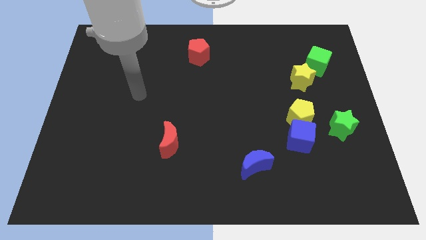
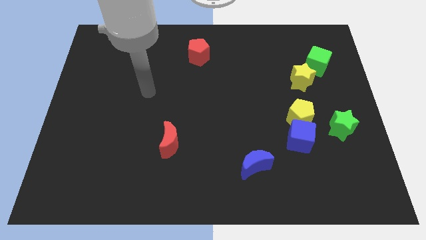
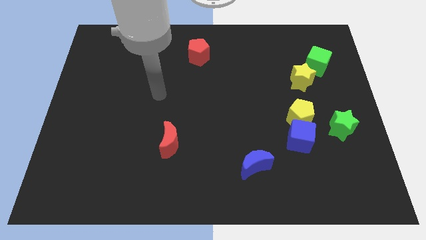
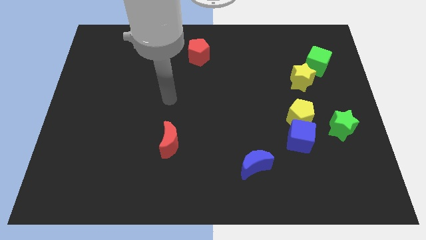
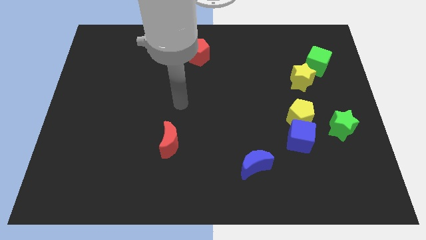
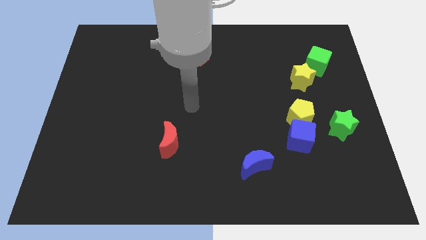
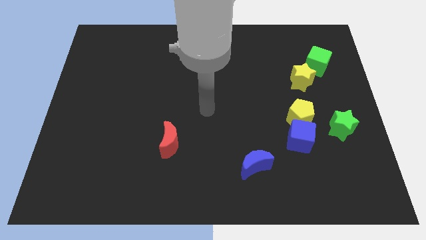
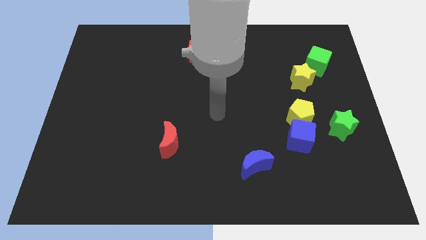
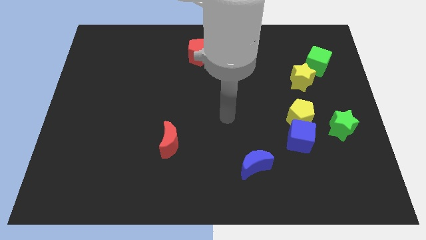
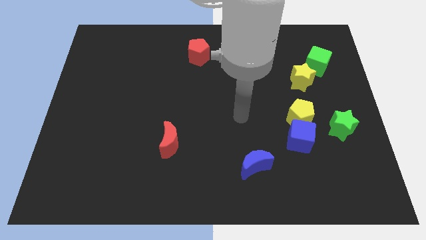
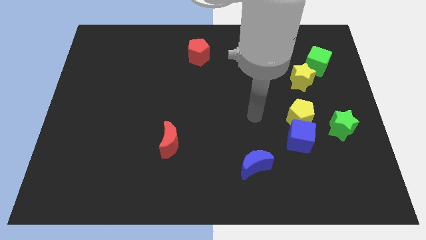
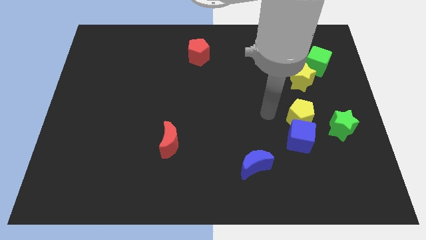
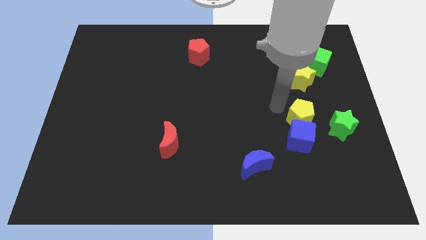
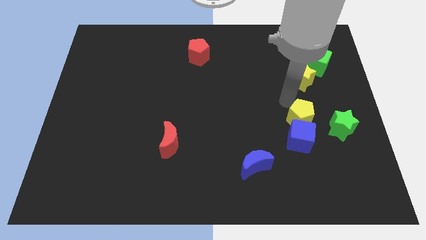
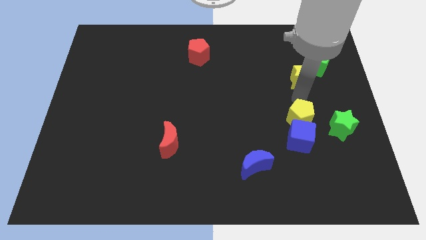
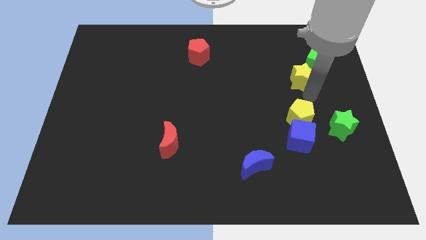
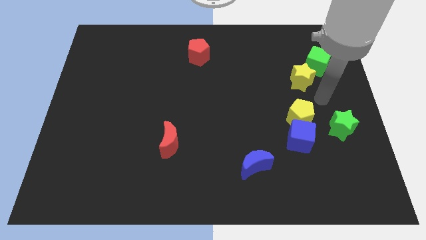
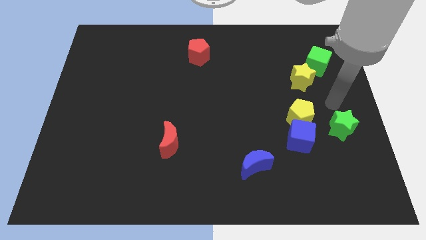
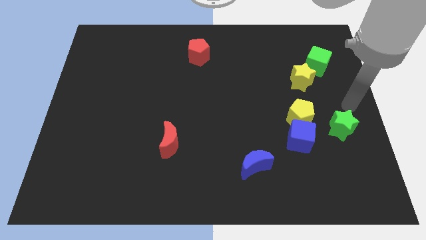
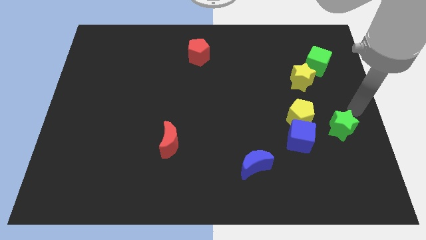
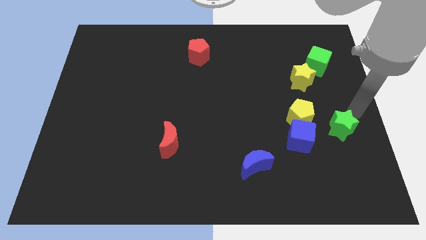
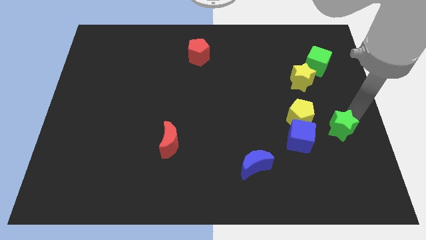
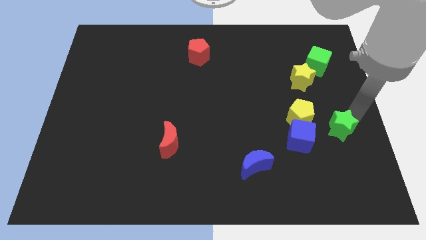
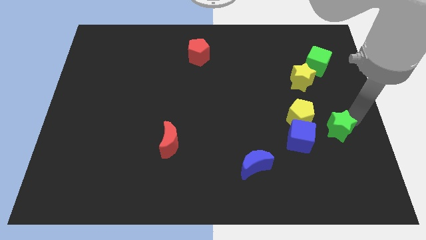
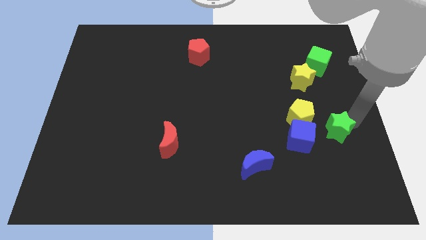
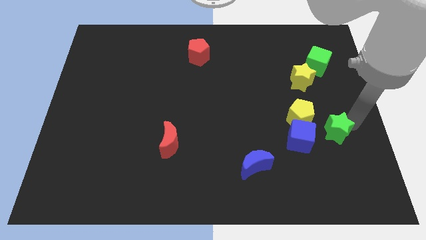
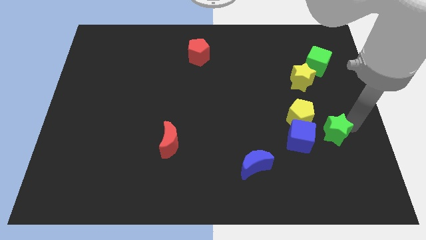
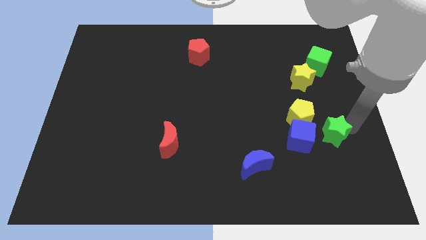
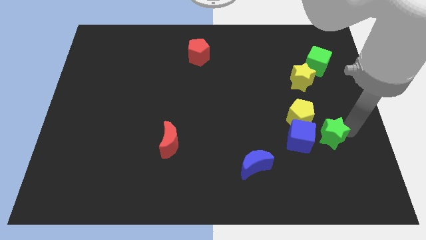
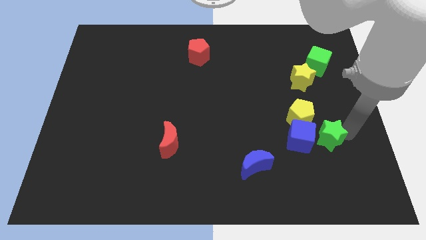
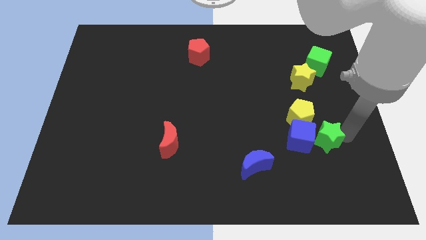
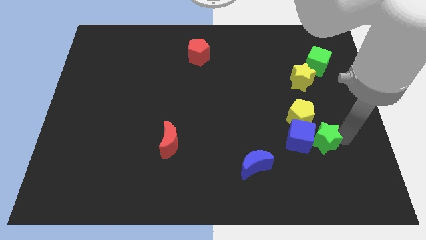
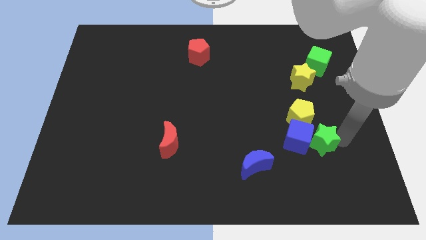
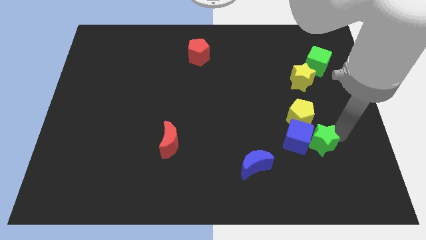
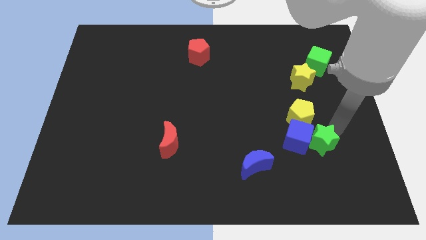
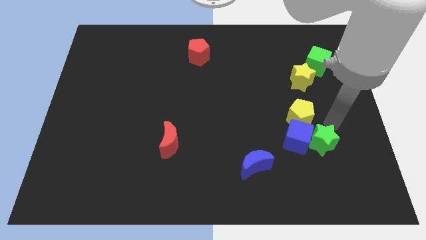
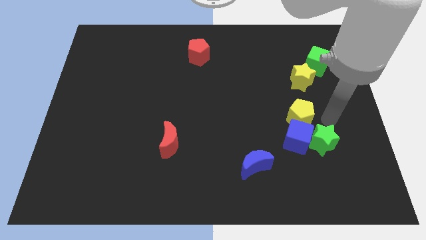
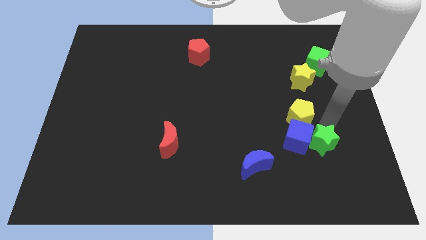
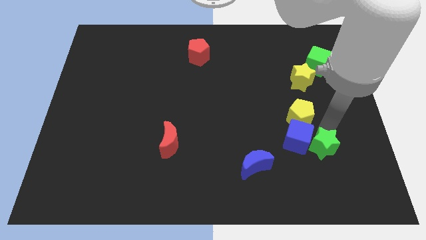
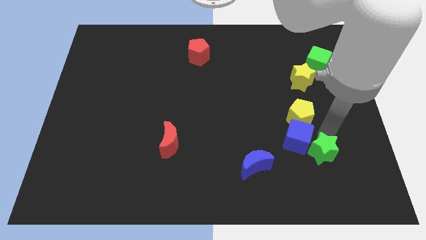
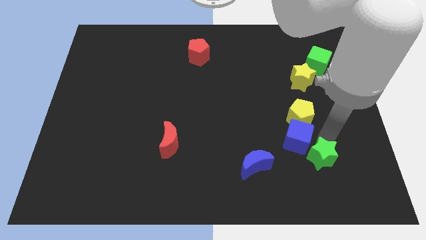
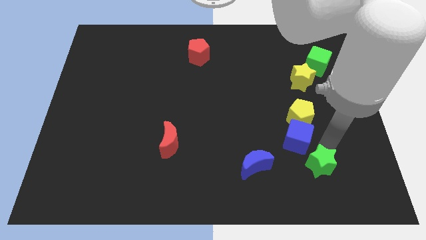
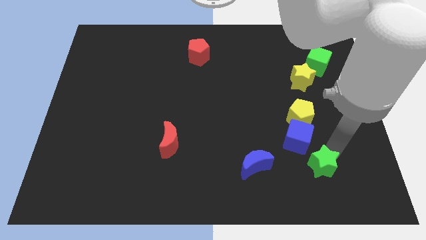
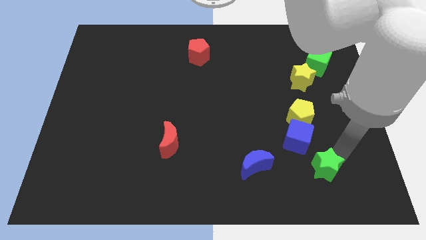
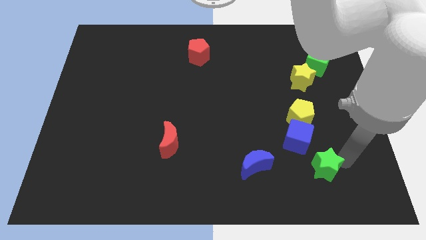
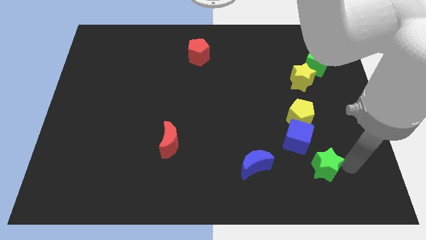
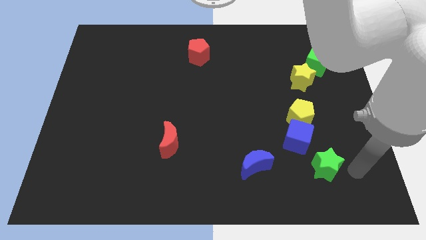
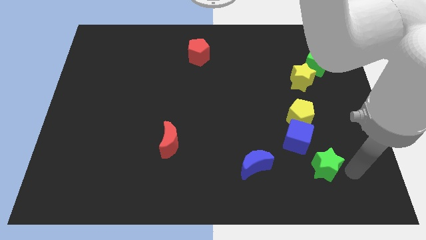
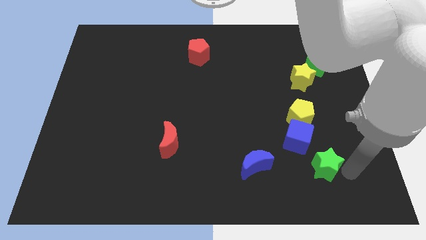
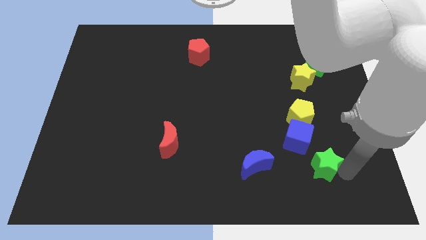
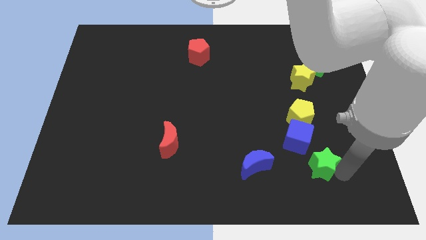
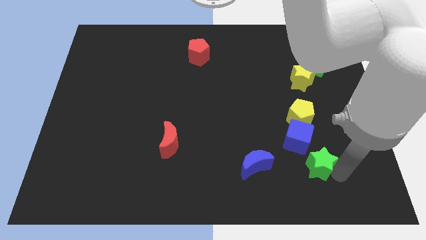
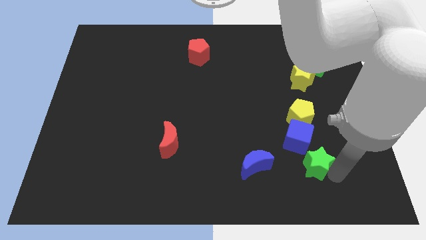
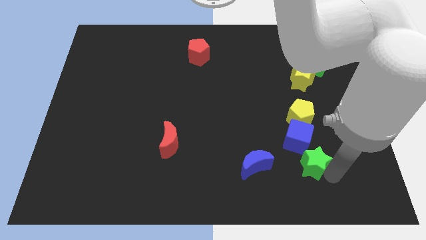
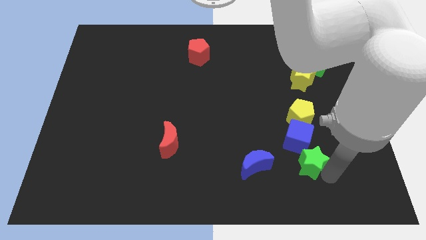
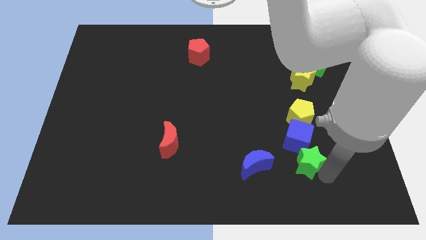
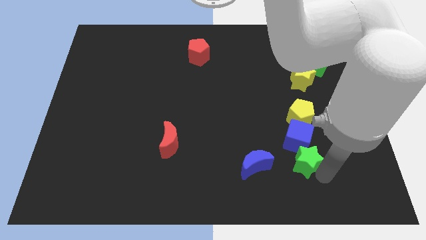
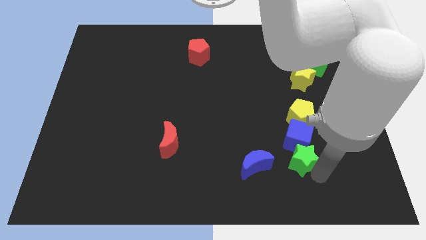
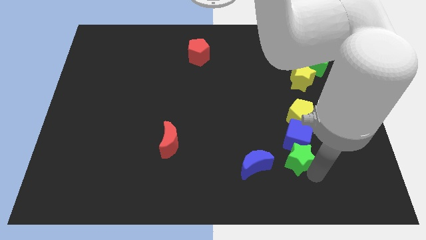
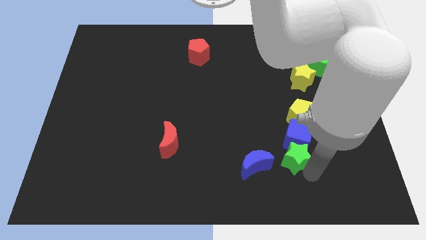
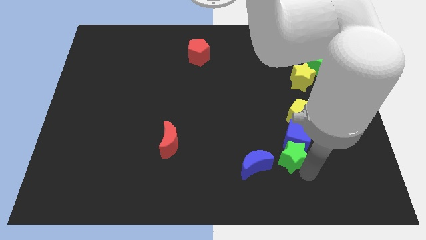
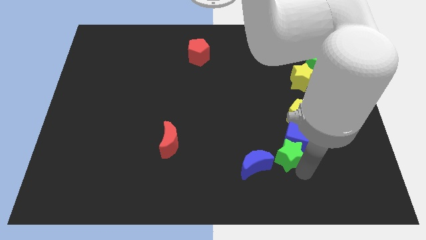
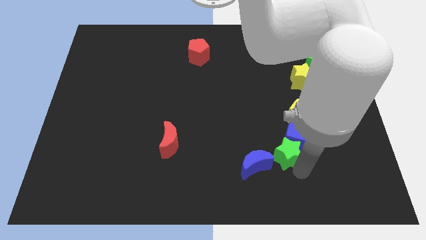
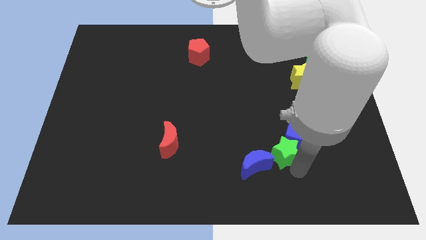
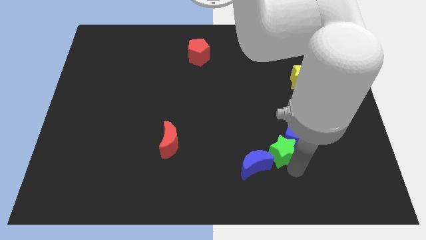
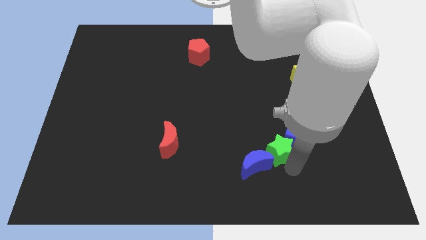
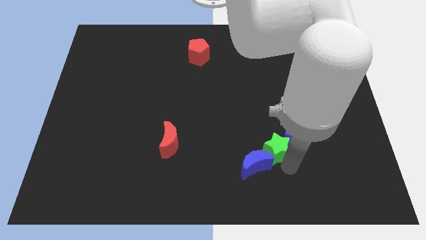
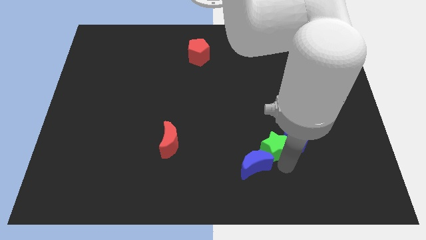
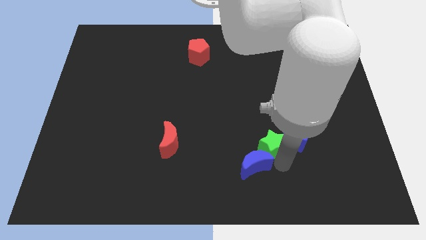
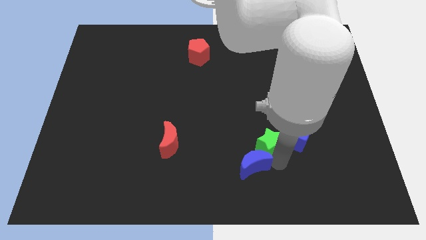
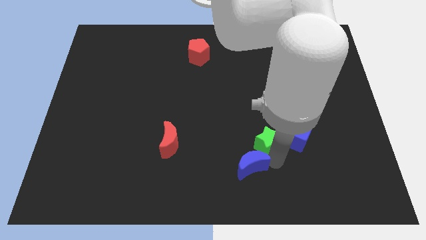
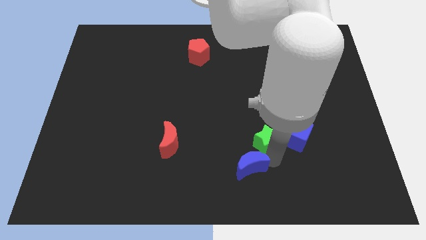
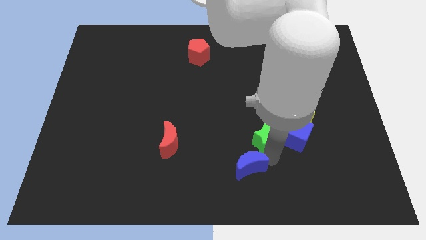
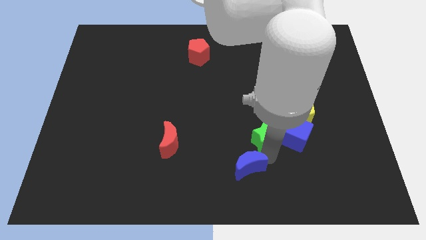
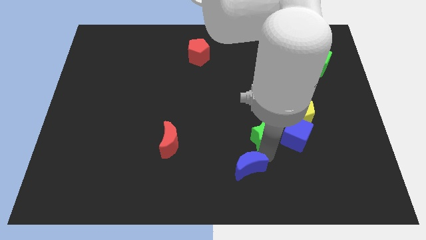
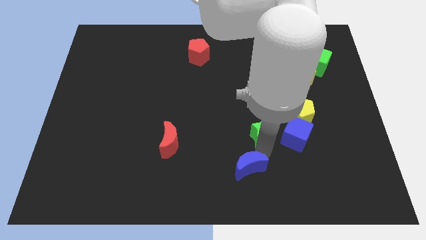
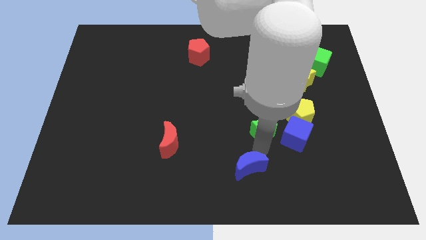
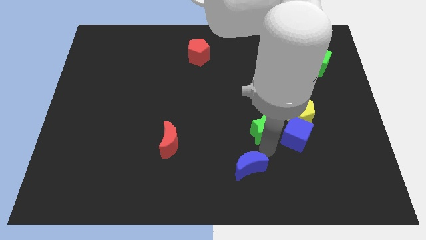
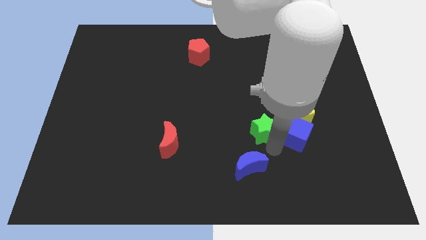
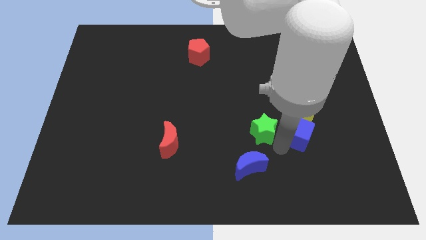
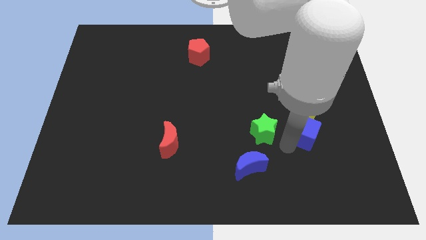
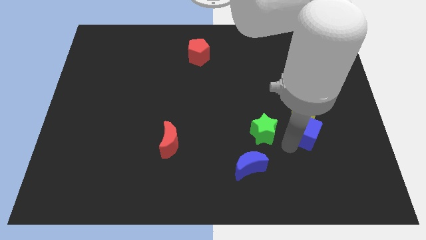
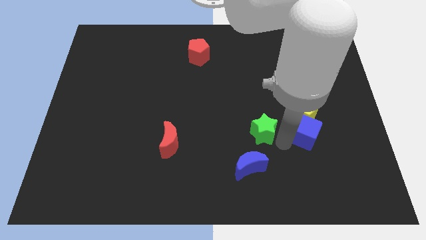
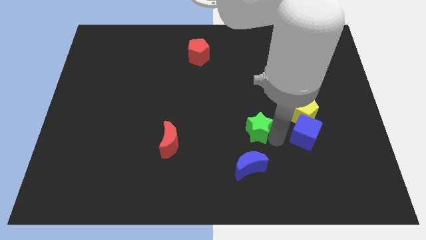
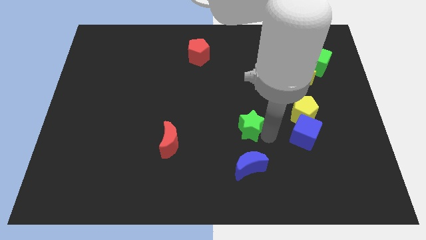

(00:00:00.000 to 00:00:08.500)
move the green star to the middle of the board
